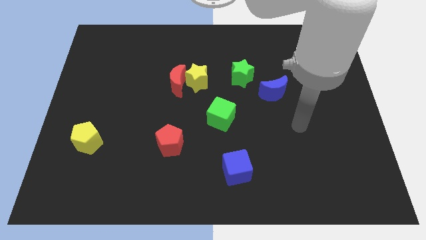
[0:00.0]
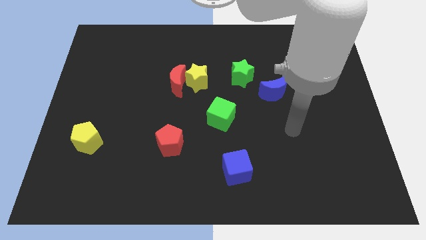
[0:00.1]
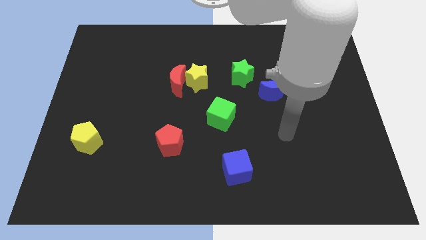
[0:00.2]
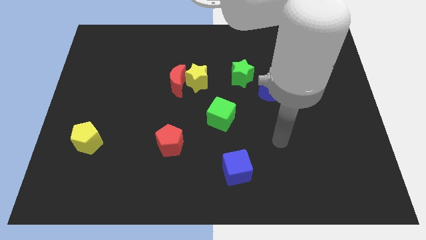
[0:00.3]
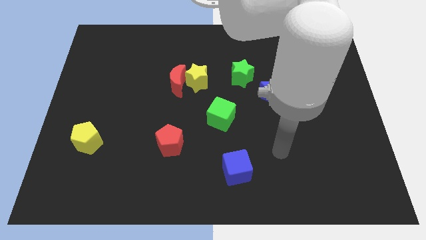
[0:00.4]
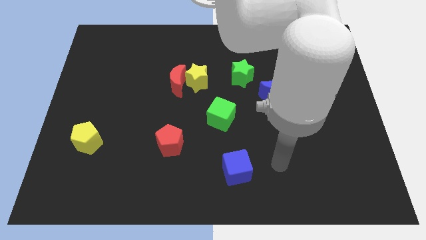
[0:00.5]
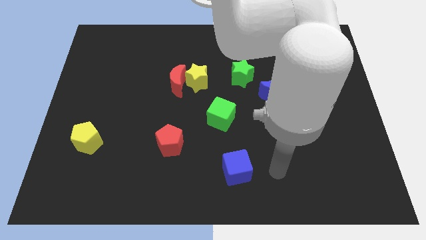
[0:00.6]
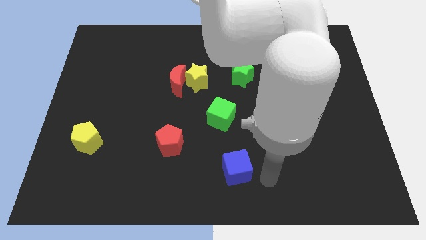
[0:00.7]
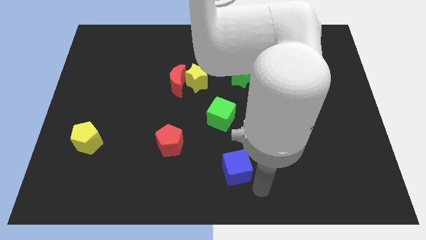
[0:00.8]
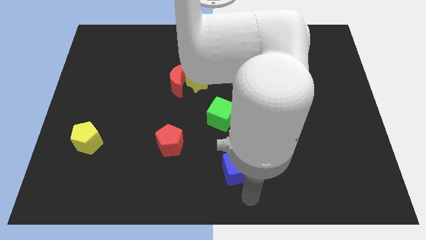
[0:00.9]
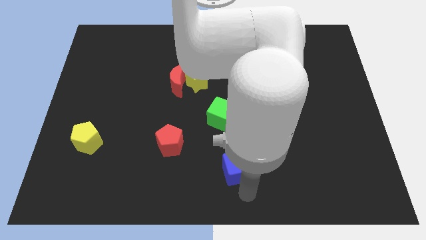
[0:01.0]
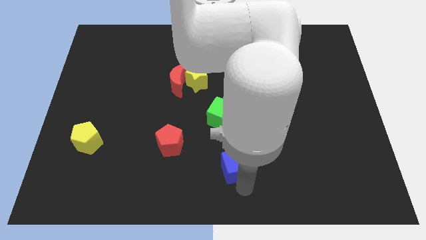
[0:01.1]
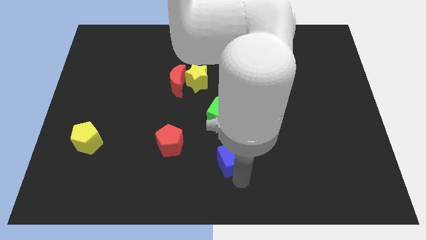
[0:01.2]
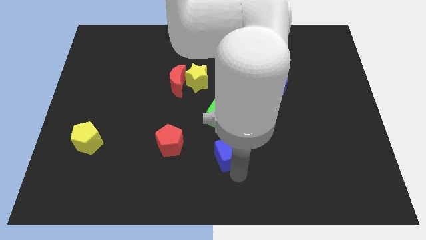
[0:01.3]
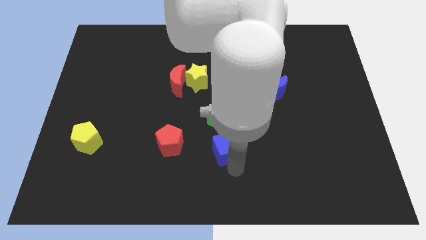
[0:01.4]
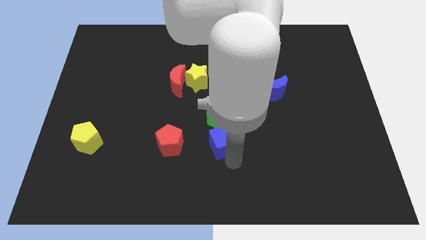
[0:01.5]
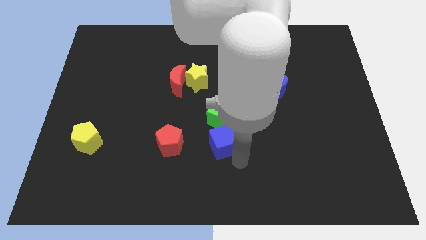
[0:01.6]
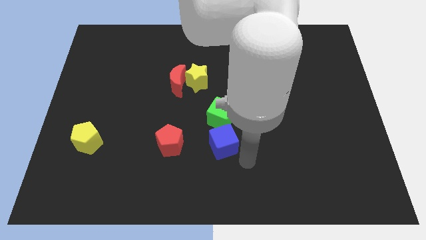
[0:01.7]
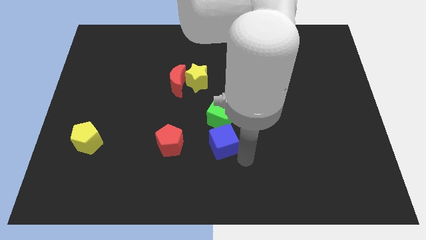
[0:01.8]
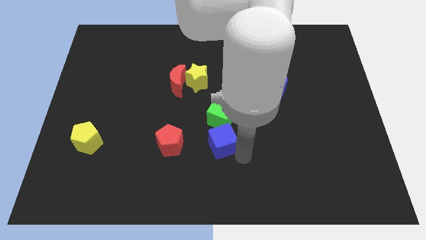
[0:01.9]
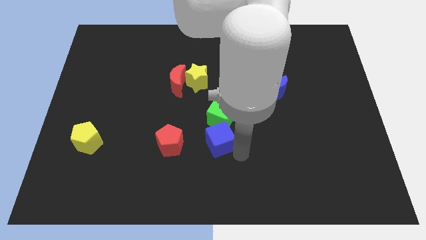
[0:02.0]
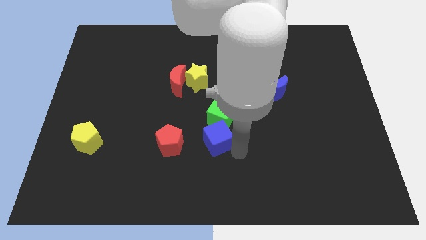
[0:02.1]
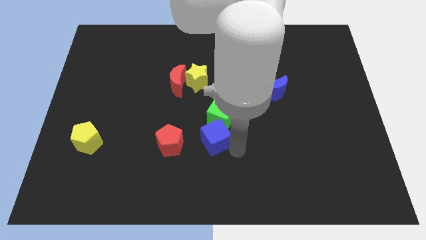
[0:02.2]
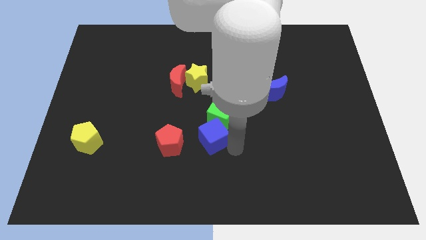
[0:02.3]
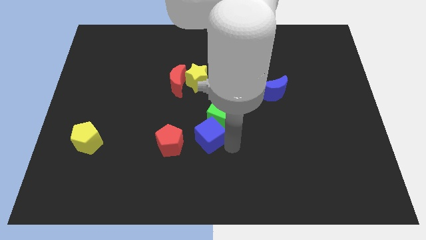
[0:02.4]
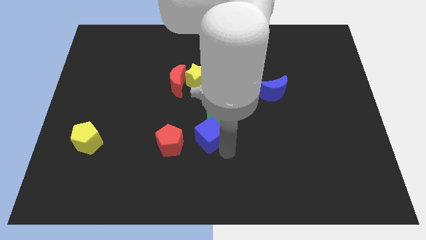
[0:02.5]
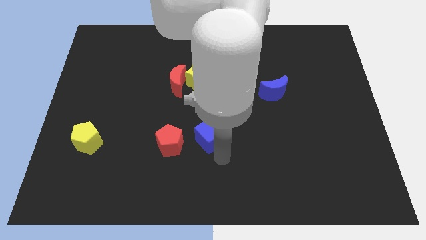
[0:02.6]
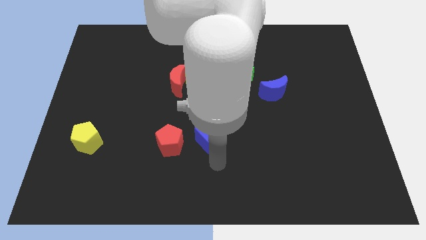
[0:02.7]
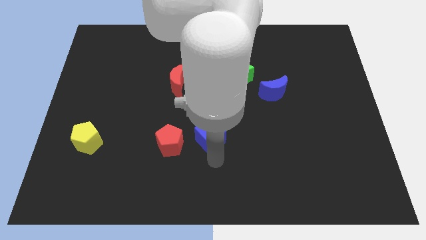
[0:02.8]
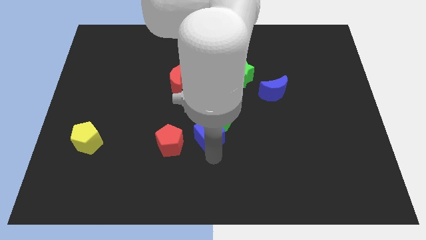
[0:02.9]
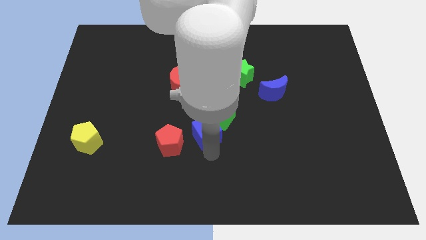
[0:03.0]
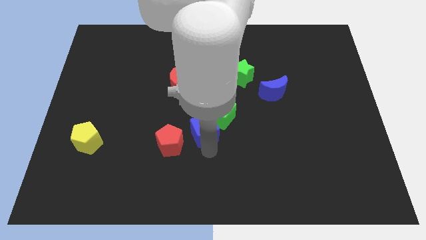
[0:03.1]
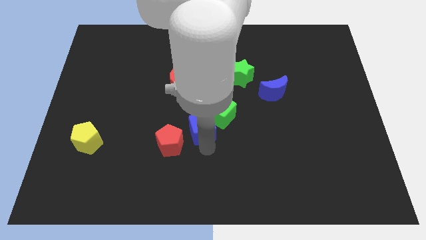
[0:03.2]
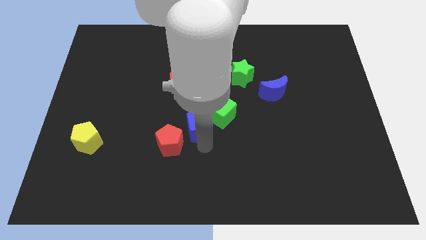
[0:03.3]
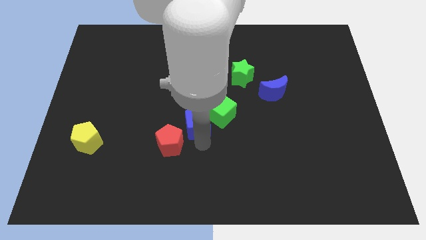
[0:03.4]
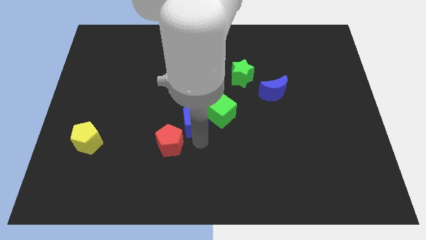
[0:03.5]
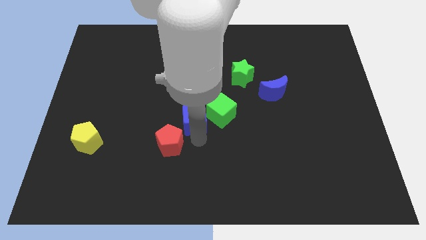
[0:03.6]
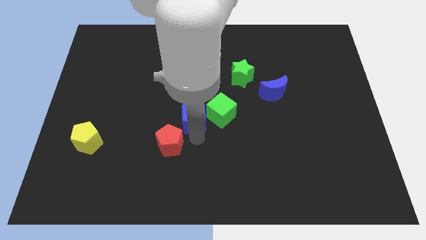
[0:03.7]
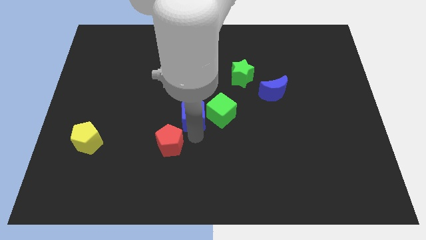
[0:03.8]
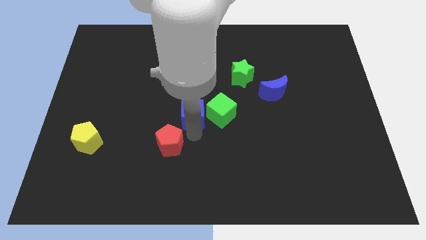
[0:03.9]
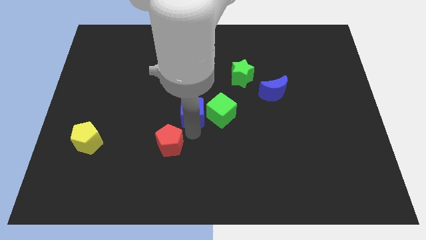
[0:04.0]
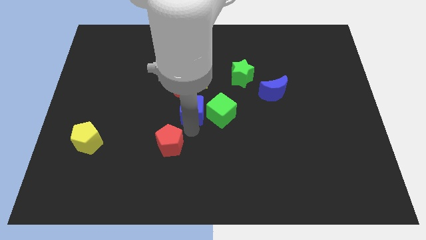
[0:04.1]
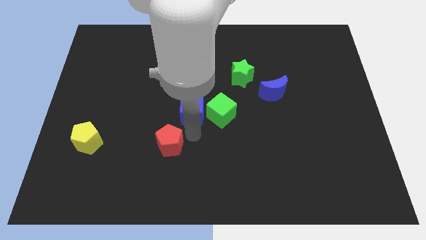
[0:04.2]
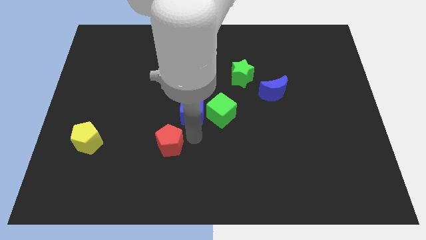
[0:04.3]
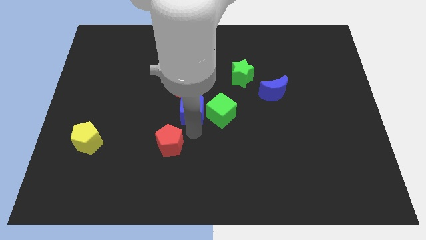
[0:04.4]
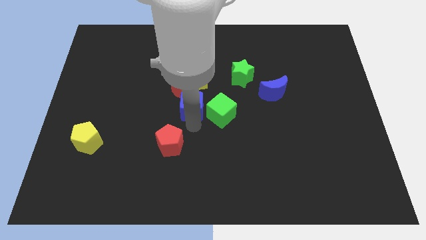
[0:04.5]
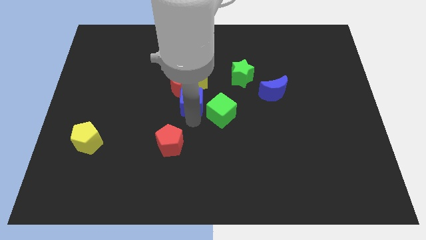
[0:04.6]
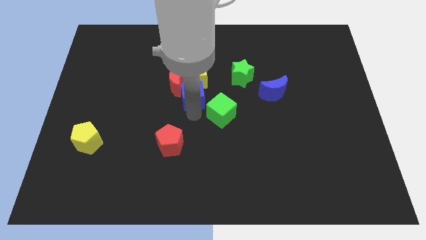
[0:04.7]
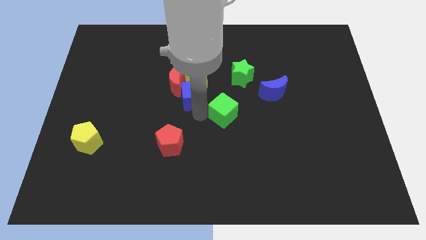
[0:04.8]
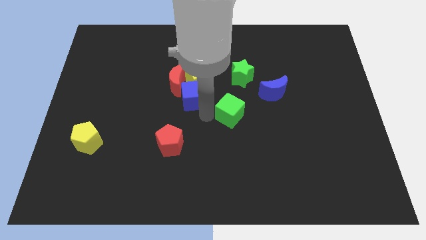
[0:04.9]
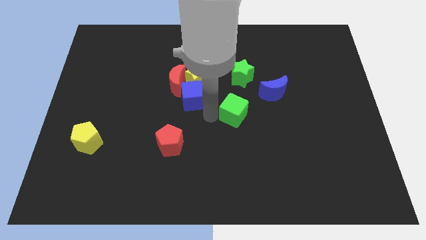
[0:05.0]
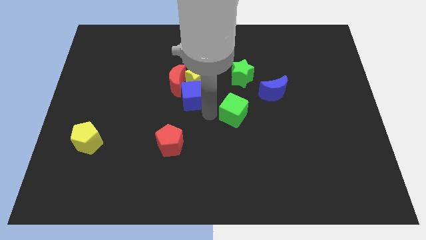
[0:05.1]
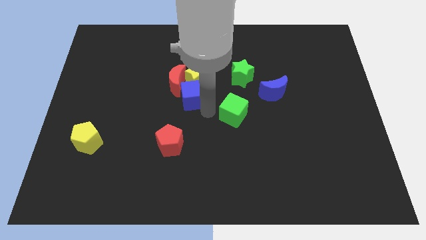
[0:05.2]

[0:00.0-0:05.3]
slide the blue cube next to the red moon

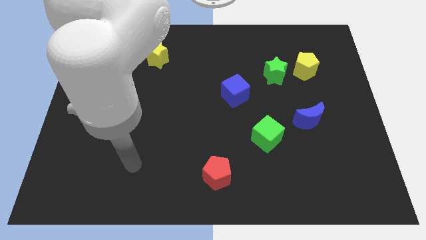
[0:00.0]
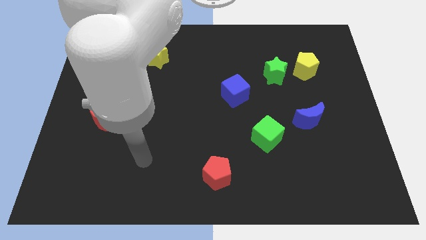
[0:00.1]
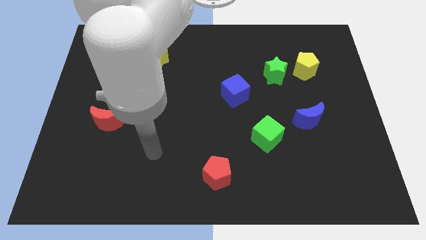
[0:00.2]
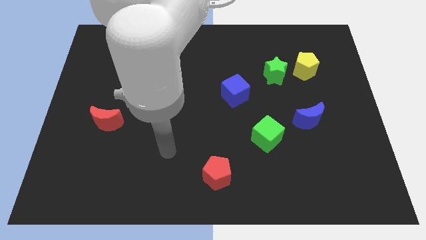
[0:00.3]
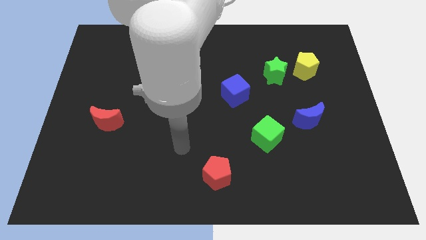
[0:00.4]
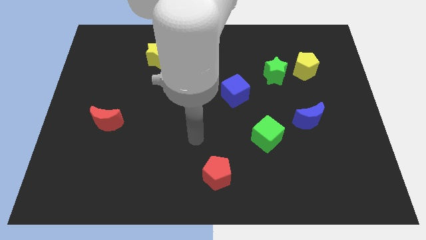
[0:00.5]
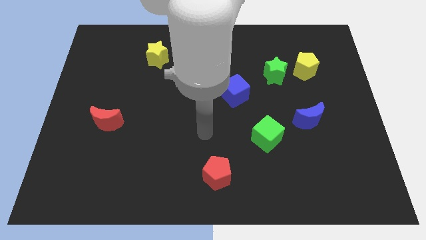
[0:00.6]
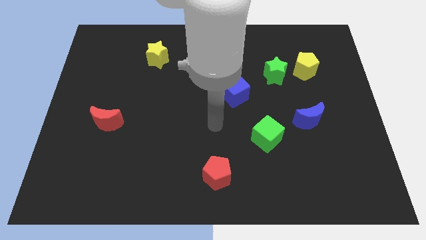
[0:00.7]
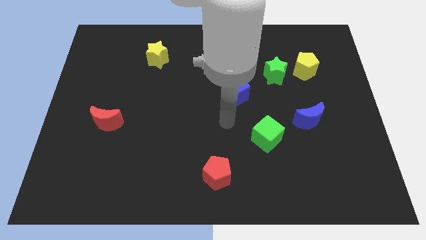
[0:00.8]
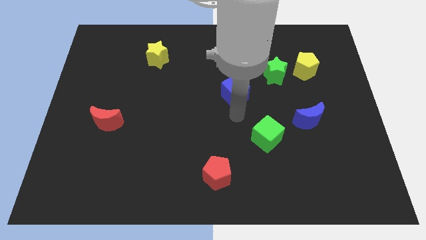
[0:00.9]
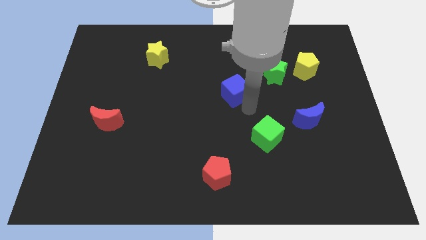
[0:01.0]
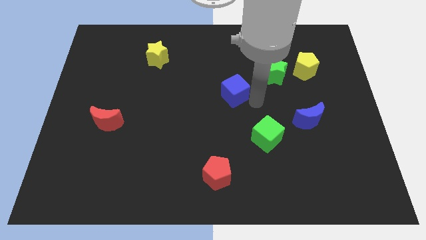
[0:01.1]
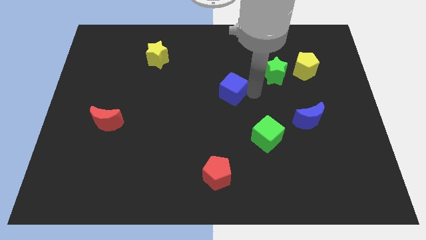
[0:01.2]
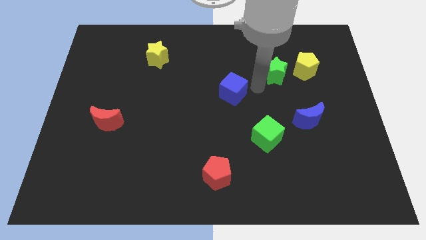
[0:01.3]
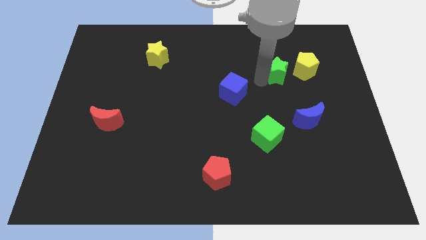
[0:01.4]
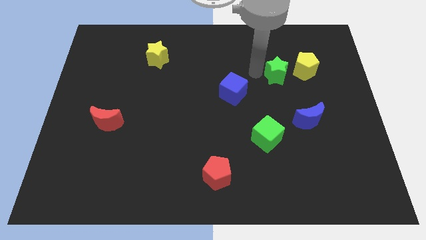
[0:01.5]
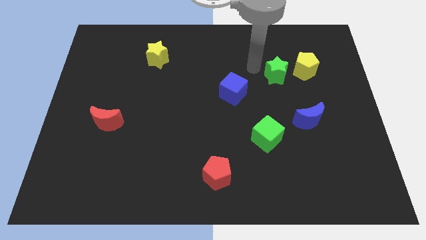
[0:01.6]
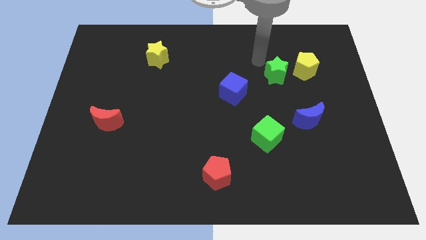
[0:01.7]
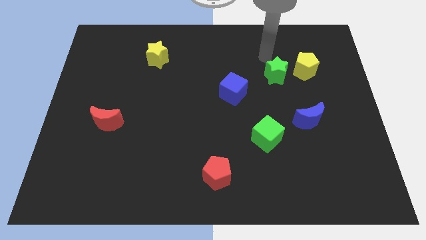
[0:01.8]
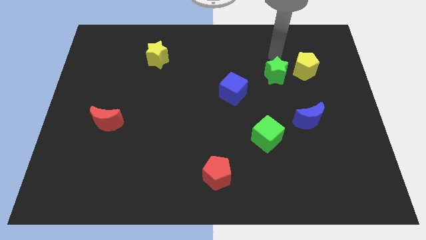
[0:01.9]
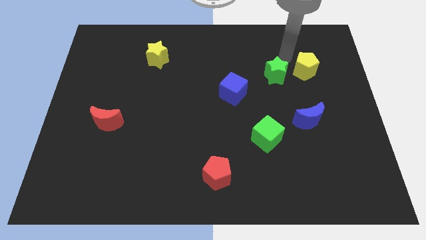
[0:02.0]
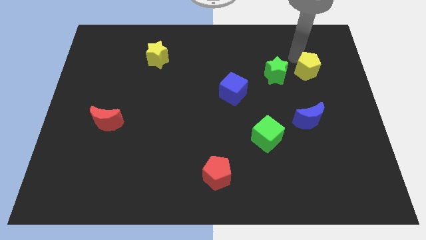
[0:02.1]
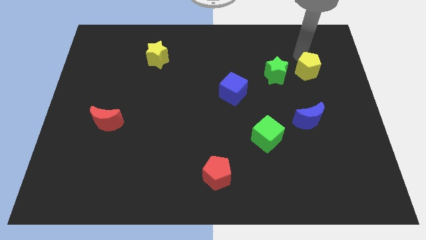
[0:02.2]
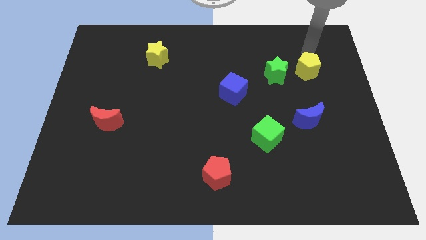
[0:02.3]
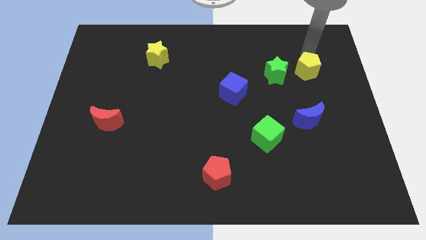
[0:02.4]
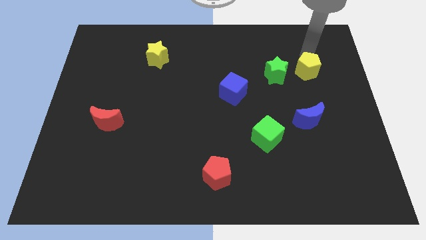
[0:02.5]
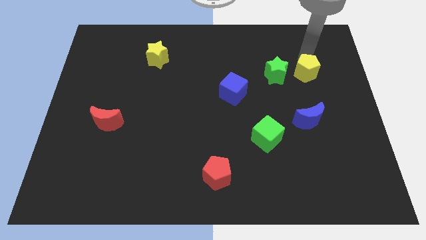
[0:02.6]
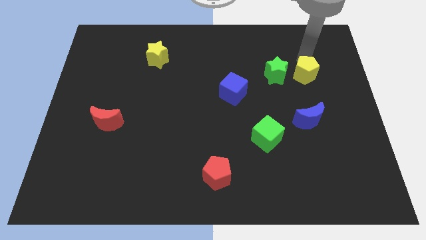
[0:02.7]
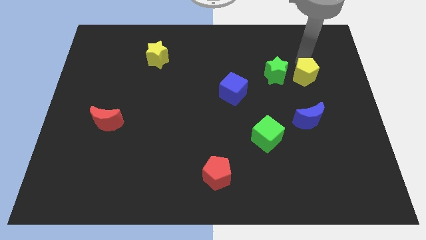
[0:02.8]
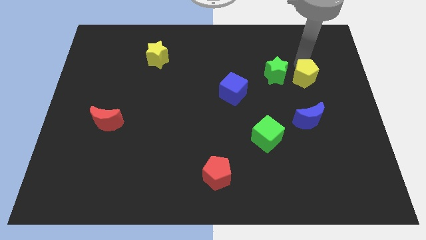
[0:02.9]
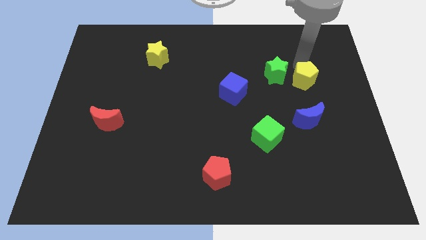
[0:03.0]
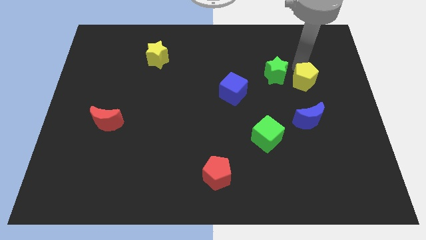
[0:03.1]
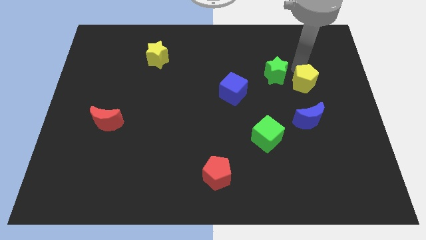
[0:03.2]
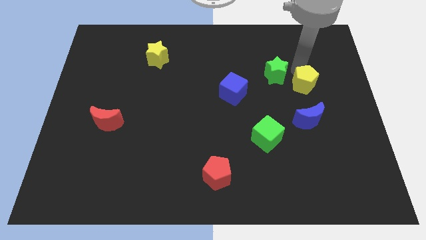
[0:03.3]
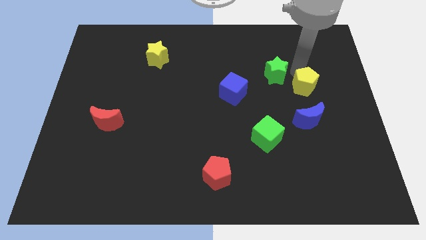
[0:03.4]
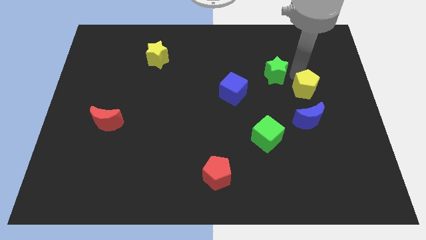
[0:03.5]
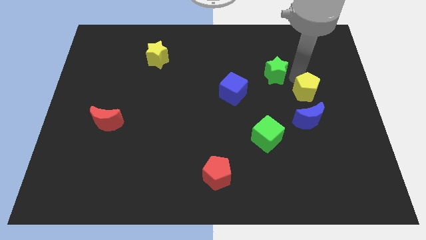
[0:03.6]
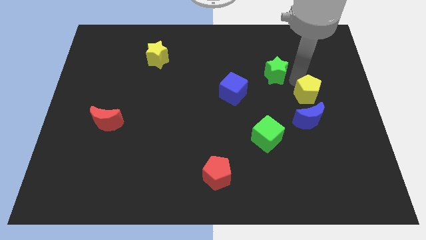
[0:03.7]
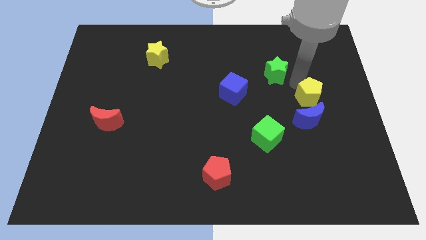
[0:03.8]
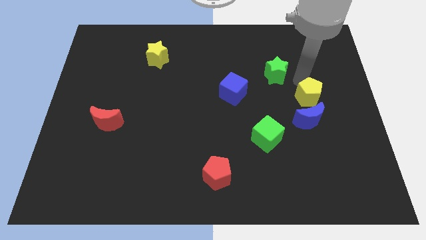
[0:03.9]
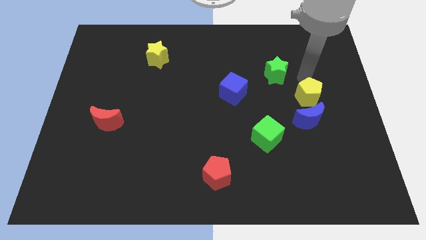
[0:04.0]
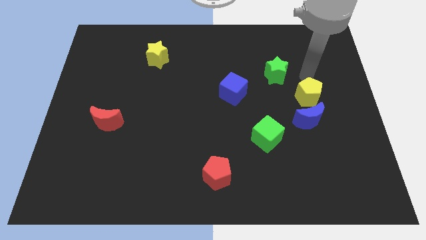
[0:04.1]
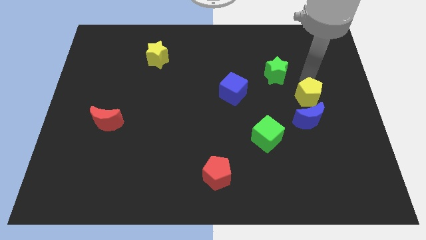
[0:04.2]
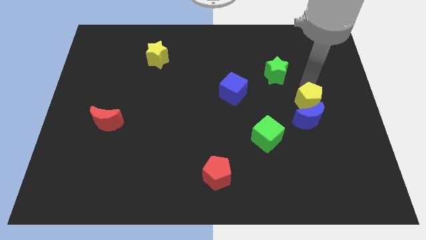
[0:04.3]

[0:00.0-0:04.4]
put the yellow pentagon towards the blue moon
